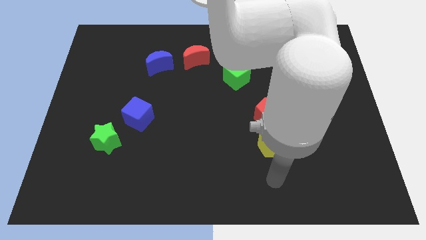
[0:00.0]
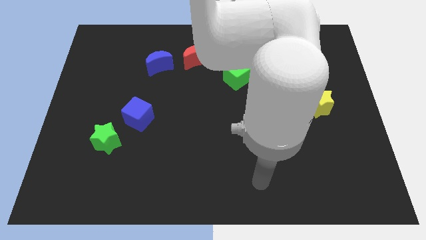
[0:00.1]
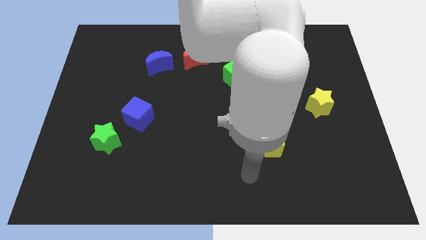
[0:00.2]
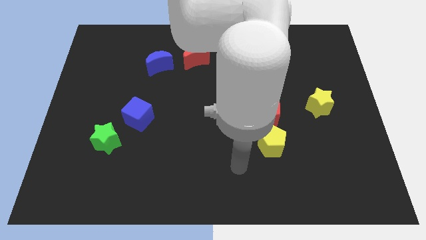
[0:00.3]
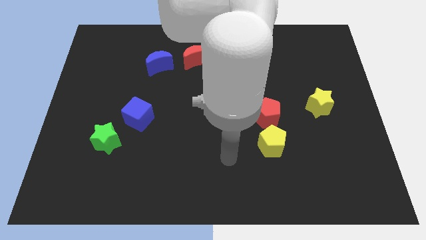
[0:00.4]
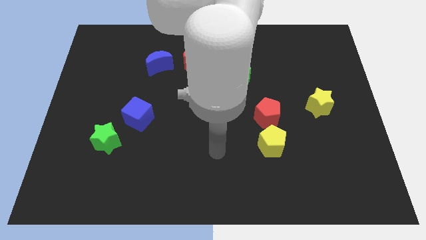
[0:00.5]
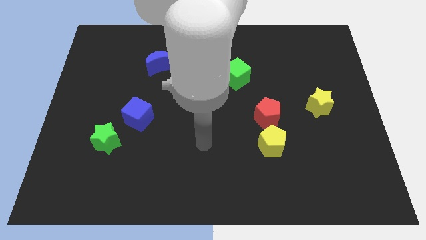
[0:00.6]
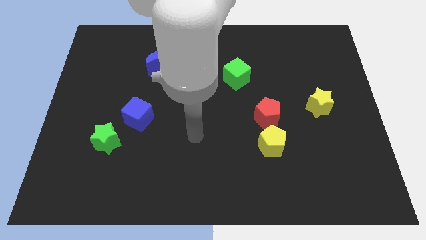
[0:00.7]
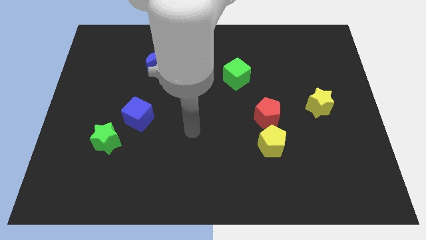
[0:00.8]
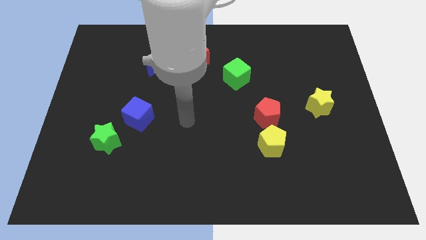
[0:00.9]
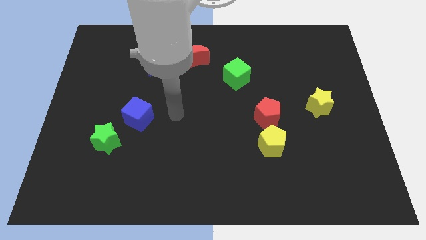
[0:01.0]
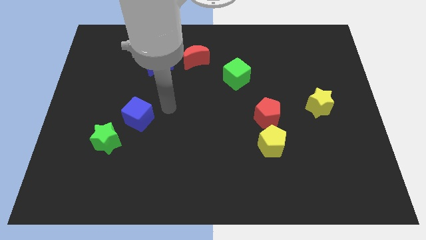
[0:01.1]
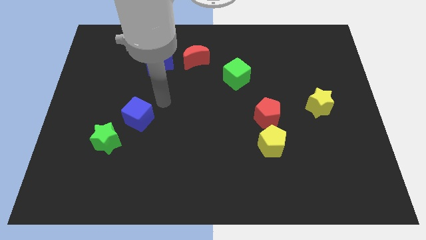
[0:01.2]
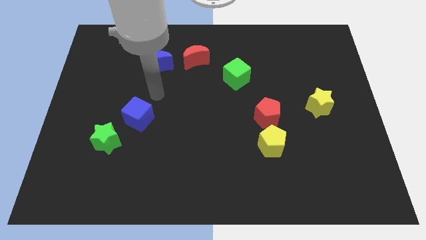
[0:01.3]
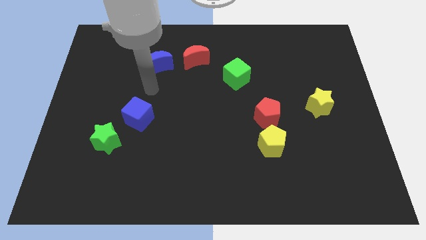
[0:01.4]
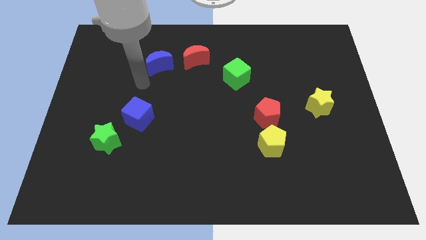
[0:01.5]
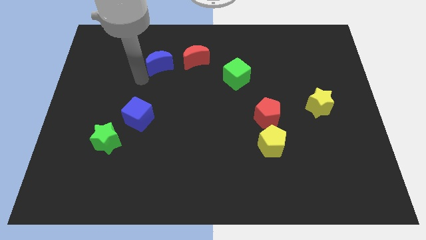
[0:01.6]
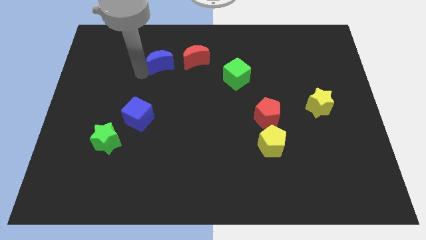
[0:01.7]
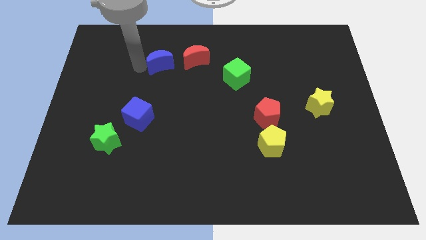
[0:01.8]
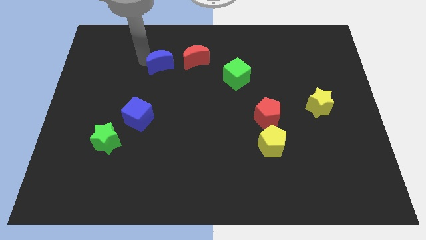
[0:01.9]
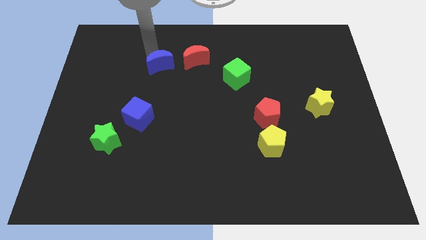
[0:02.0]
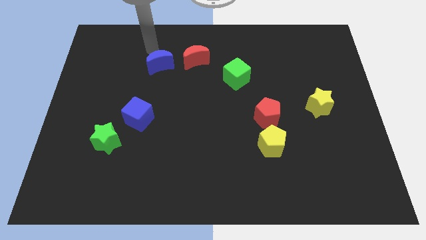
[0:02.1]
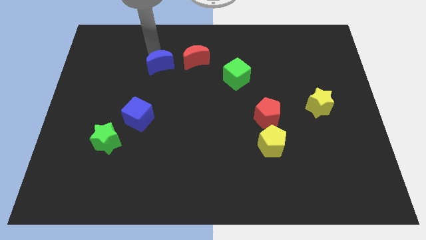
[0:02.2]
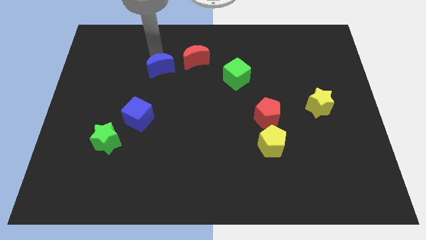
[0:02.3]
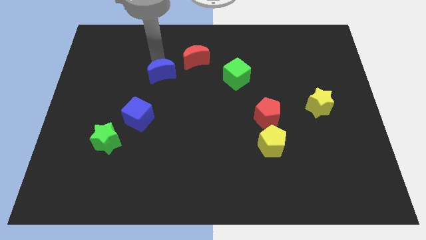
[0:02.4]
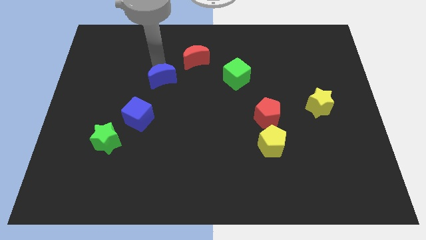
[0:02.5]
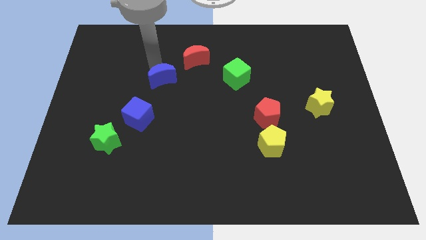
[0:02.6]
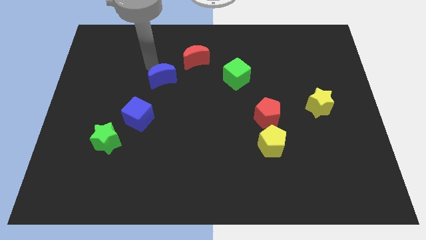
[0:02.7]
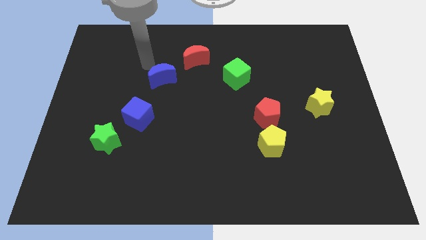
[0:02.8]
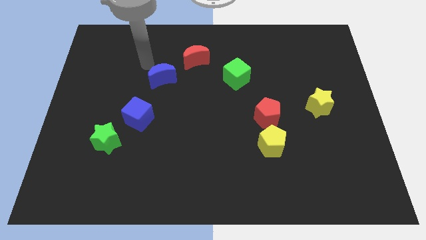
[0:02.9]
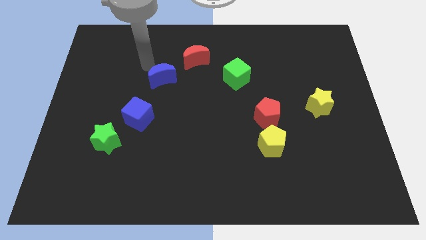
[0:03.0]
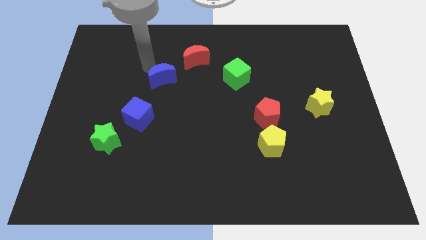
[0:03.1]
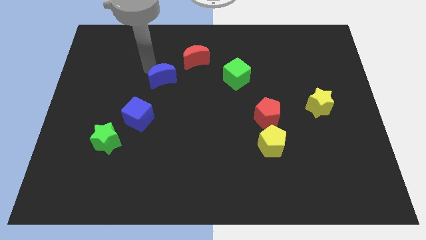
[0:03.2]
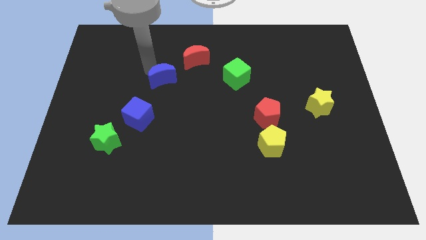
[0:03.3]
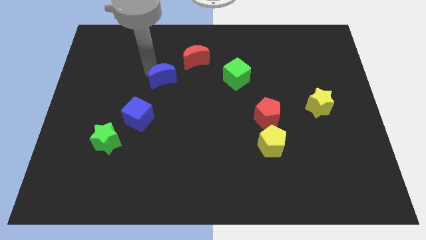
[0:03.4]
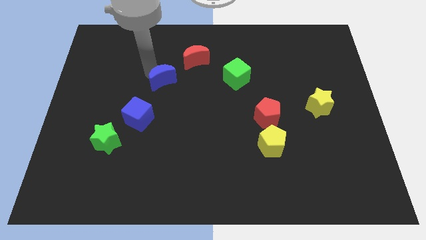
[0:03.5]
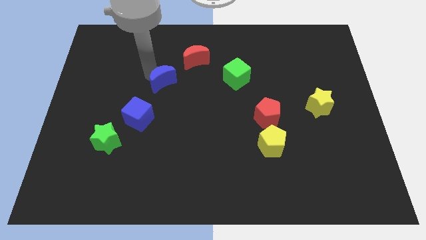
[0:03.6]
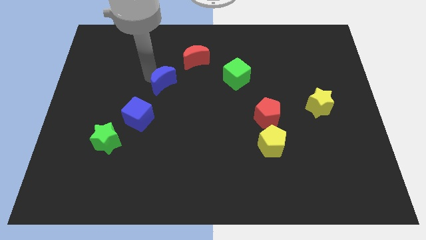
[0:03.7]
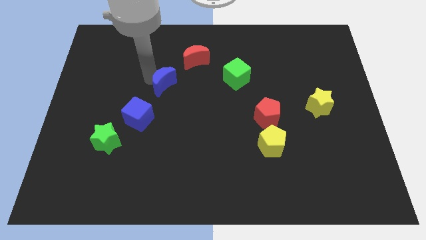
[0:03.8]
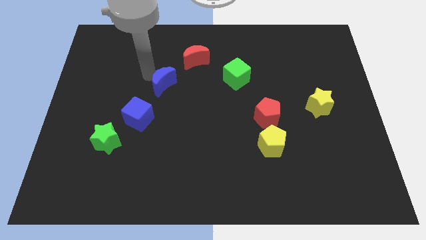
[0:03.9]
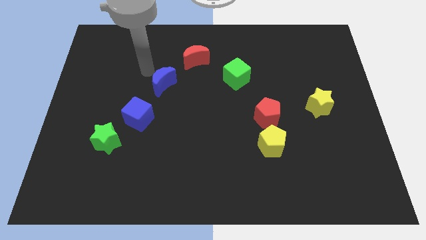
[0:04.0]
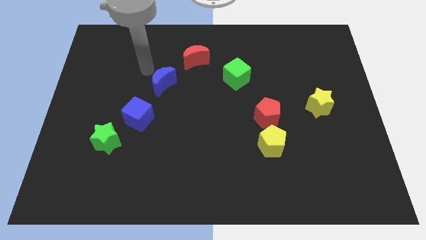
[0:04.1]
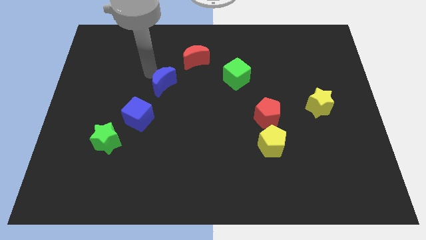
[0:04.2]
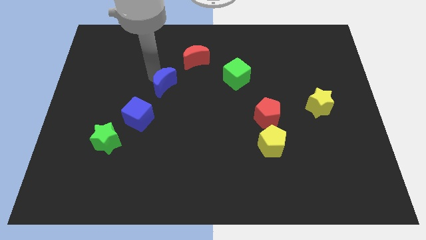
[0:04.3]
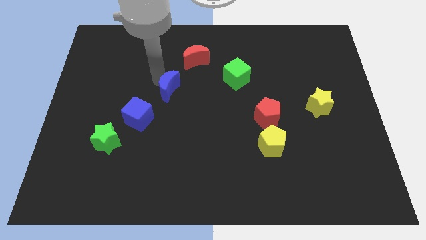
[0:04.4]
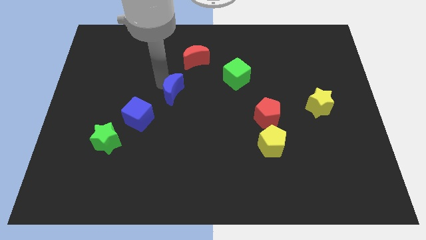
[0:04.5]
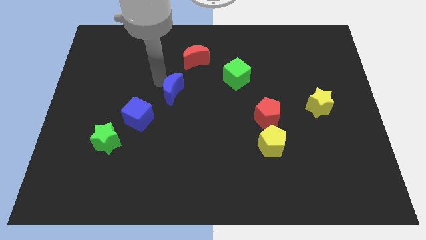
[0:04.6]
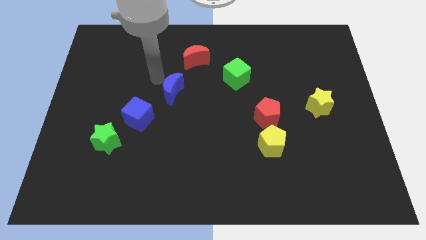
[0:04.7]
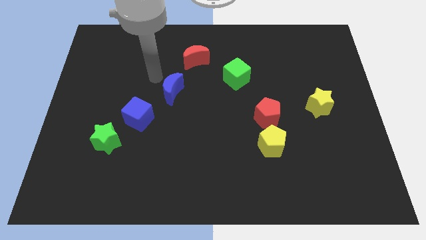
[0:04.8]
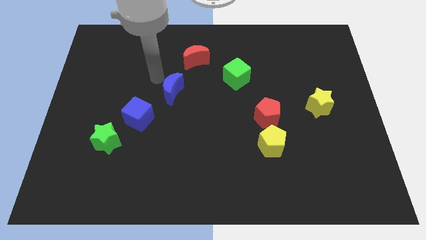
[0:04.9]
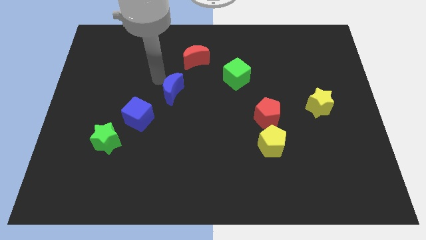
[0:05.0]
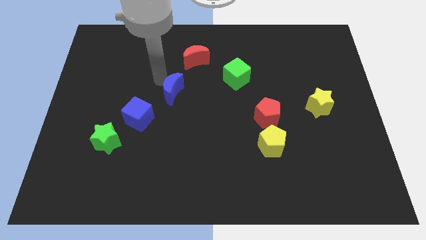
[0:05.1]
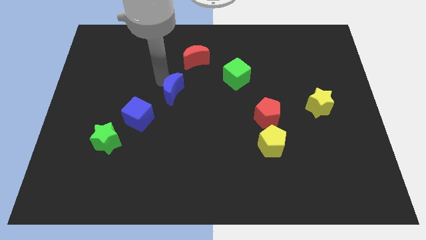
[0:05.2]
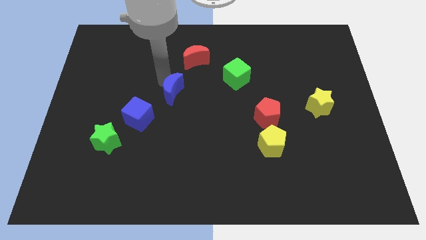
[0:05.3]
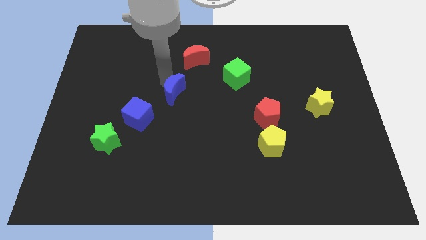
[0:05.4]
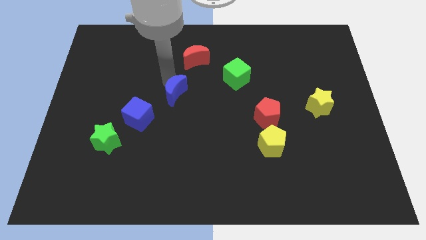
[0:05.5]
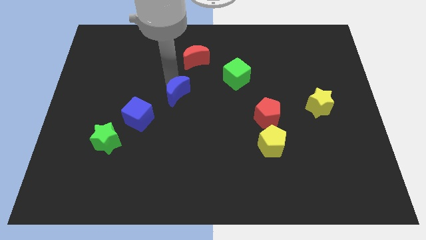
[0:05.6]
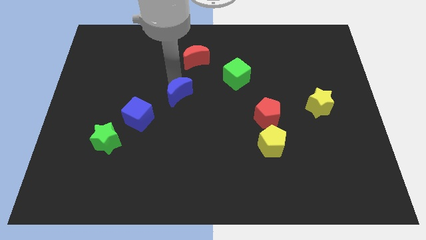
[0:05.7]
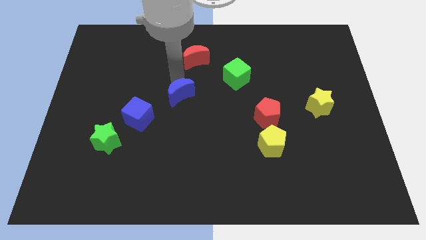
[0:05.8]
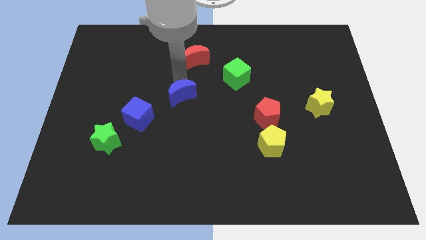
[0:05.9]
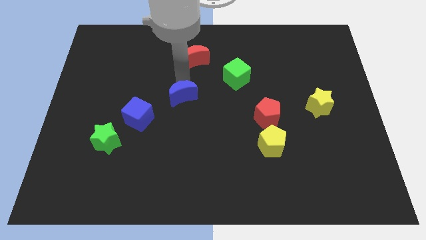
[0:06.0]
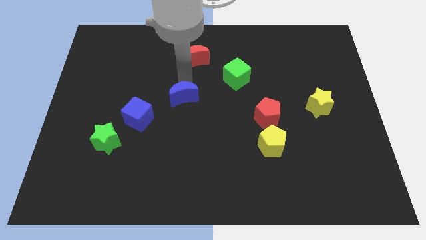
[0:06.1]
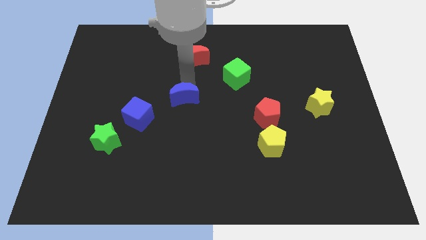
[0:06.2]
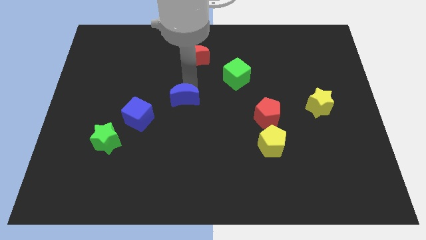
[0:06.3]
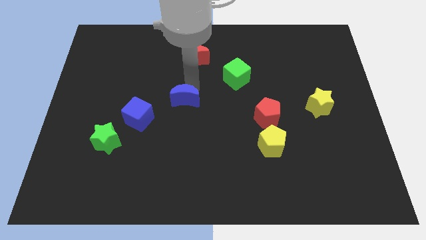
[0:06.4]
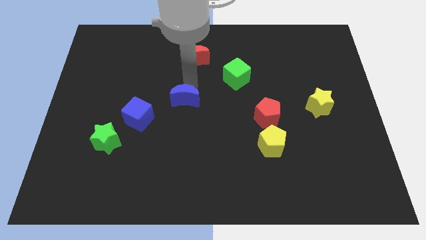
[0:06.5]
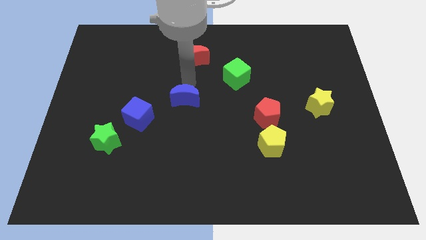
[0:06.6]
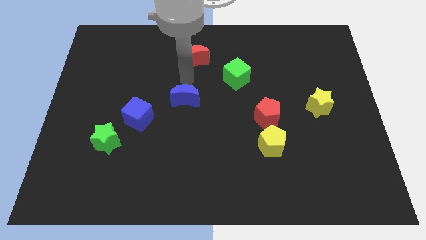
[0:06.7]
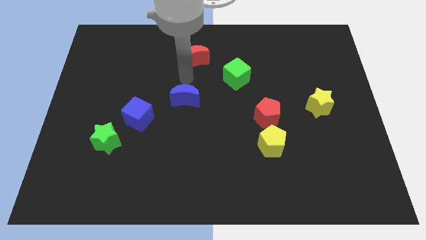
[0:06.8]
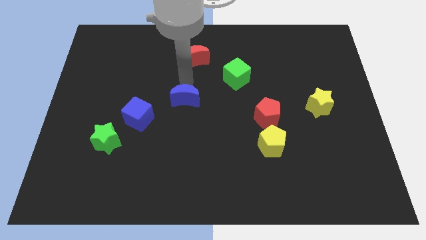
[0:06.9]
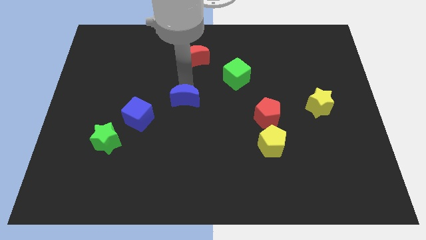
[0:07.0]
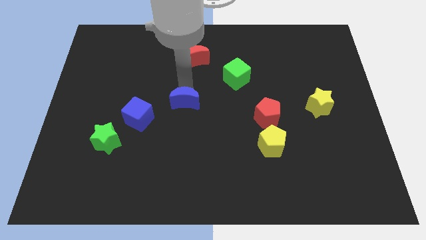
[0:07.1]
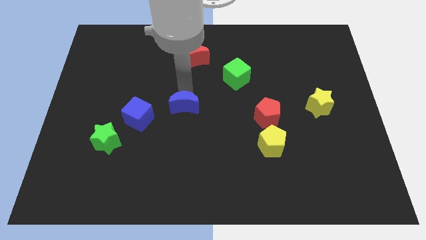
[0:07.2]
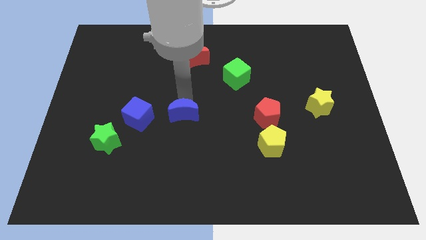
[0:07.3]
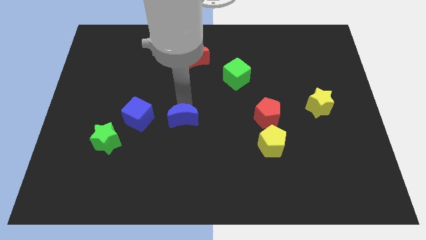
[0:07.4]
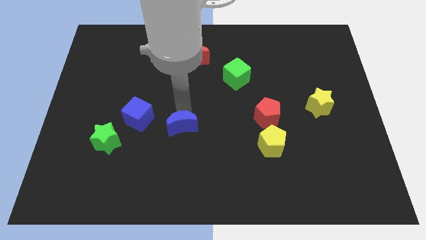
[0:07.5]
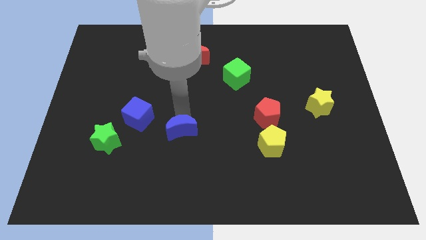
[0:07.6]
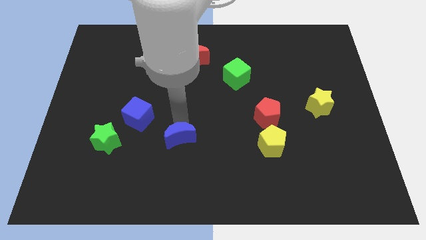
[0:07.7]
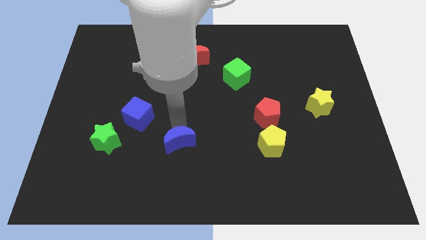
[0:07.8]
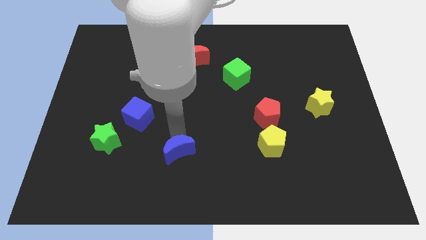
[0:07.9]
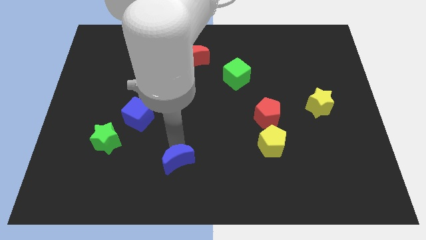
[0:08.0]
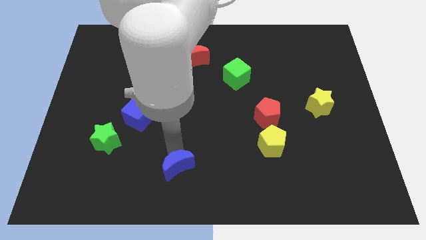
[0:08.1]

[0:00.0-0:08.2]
put the blue moon to the bottom side
